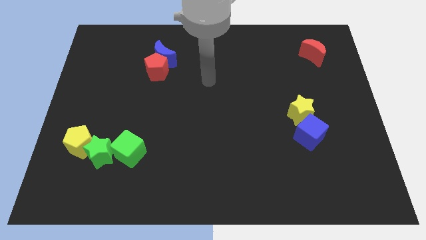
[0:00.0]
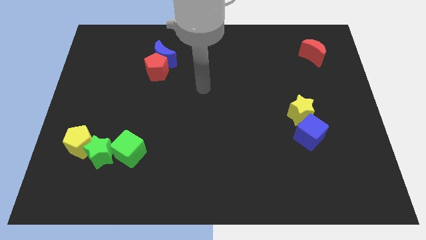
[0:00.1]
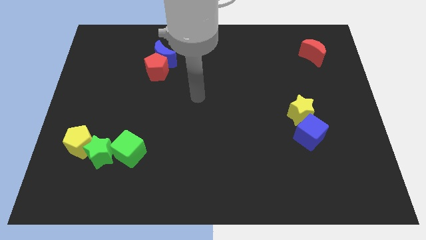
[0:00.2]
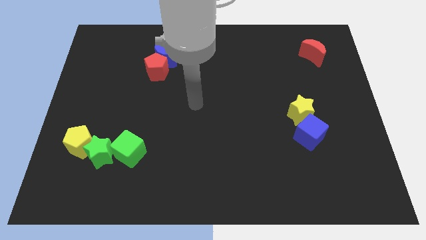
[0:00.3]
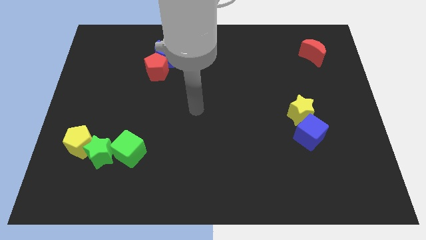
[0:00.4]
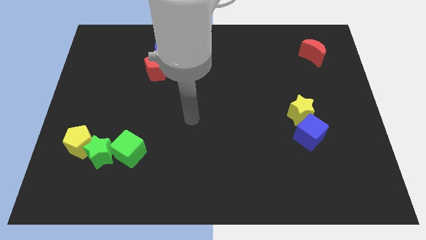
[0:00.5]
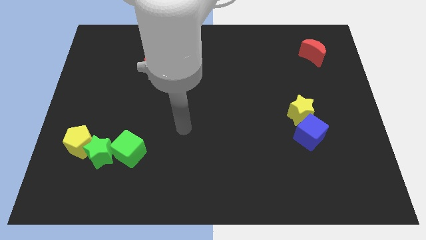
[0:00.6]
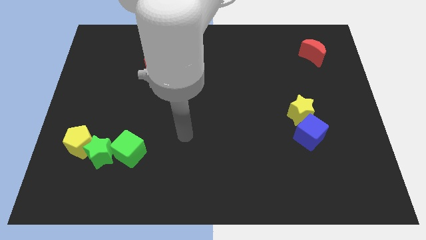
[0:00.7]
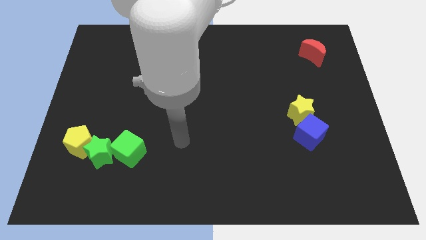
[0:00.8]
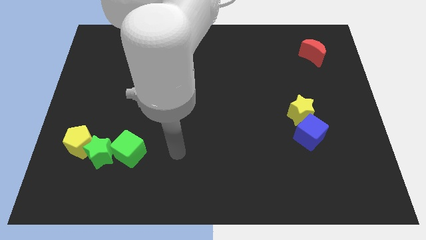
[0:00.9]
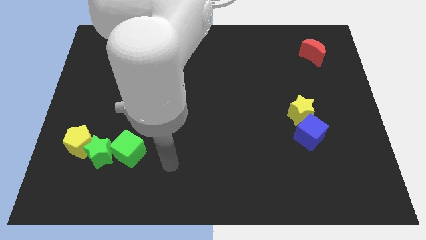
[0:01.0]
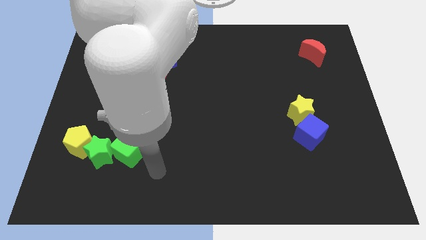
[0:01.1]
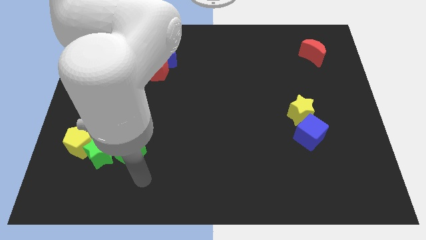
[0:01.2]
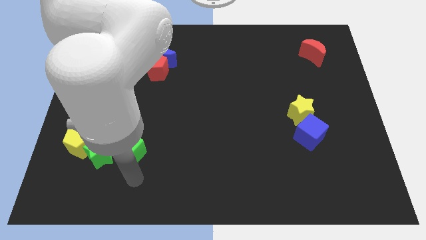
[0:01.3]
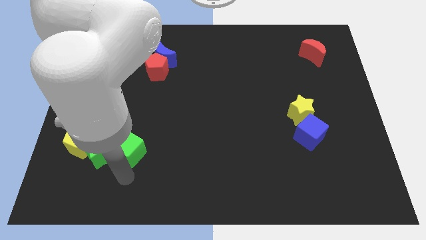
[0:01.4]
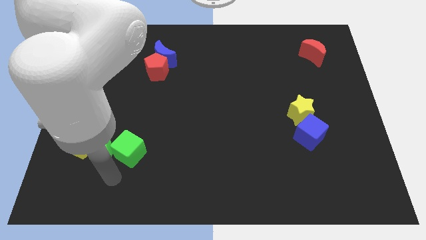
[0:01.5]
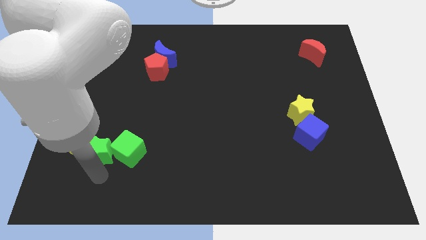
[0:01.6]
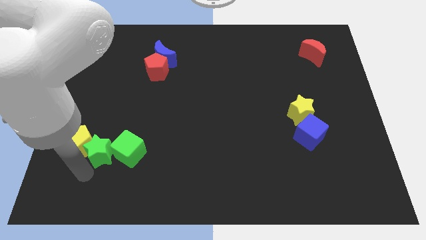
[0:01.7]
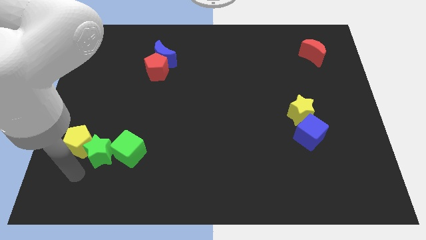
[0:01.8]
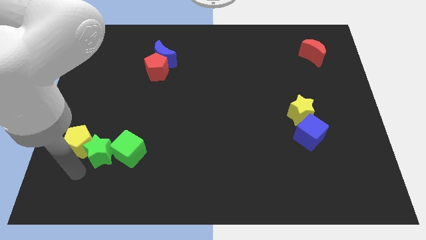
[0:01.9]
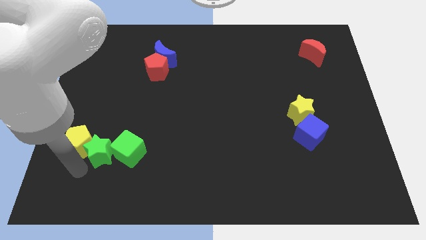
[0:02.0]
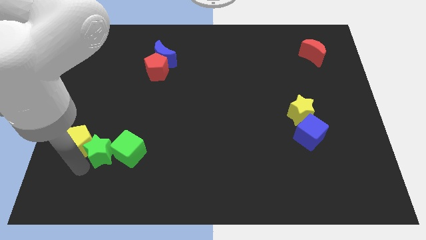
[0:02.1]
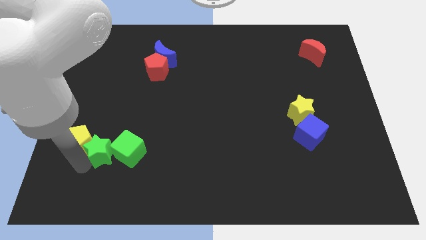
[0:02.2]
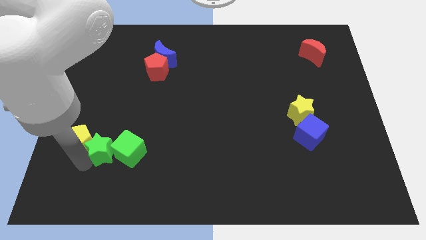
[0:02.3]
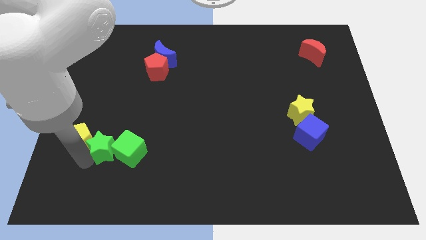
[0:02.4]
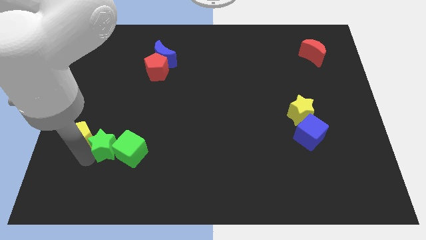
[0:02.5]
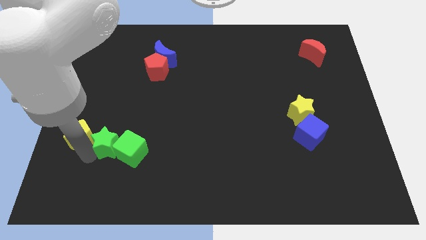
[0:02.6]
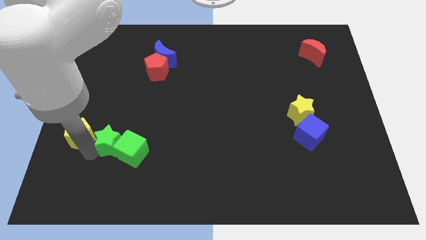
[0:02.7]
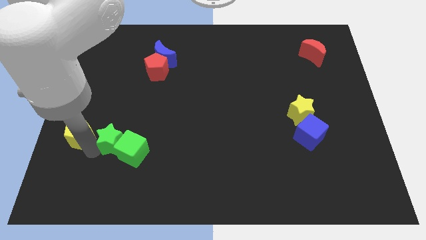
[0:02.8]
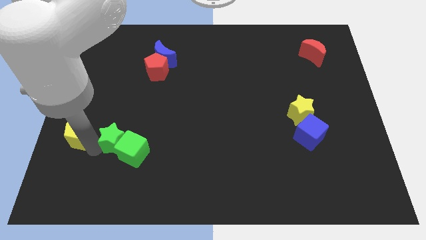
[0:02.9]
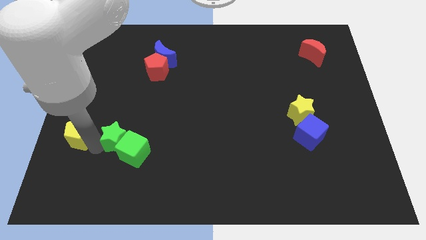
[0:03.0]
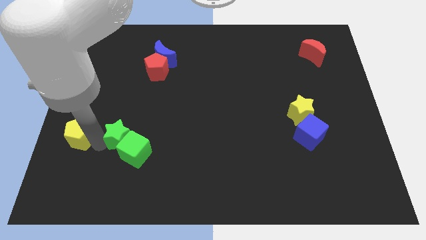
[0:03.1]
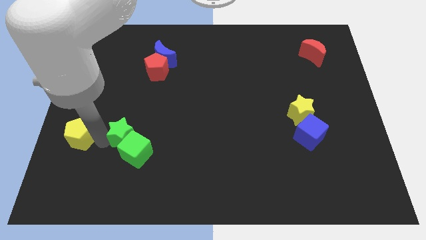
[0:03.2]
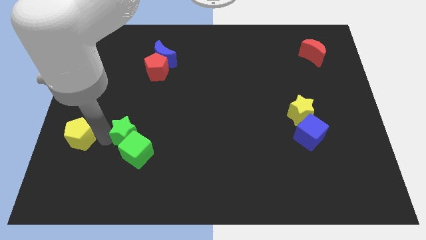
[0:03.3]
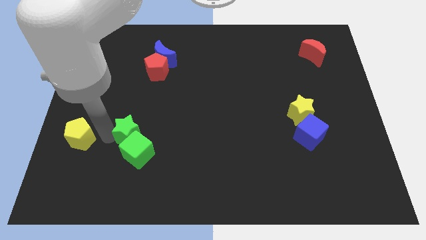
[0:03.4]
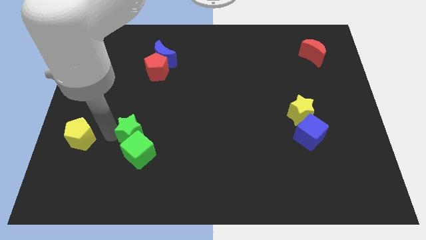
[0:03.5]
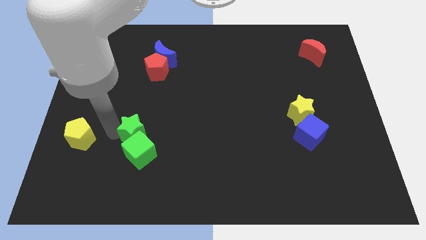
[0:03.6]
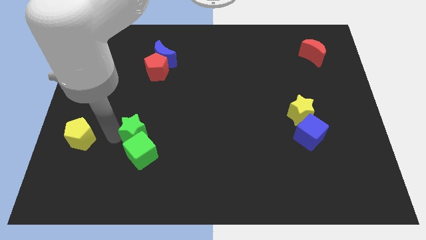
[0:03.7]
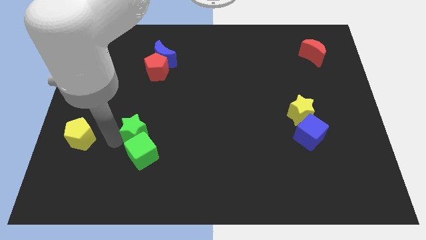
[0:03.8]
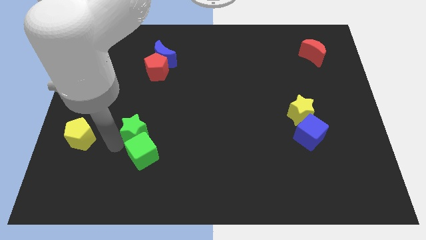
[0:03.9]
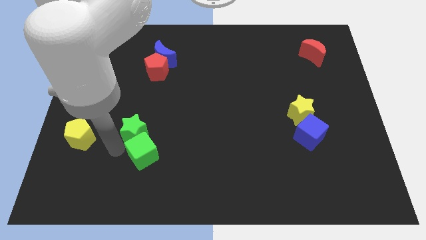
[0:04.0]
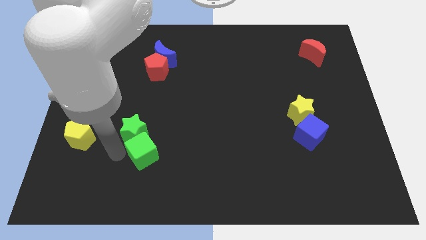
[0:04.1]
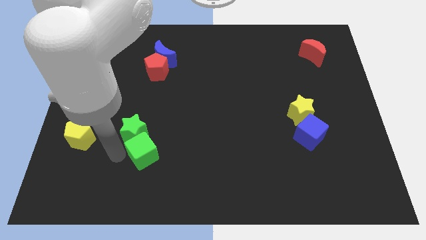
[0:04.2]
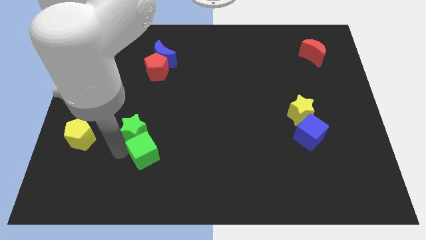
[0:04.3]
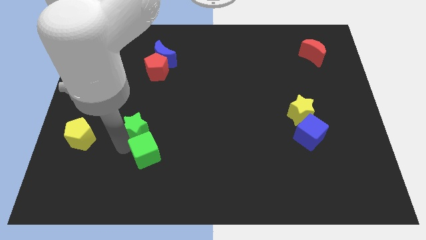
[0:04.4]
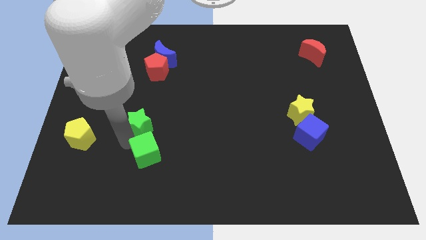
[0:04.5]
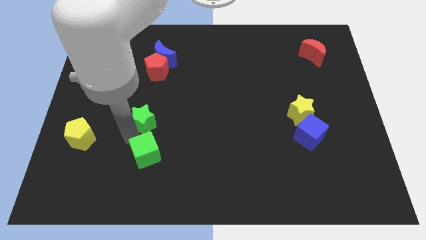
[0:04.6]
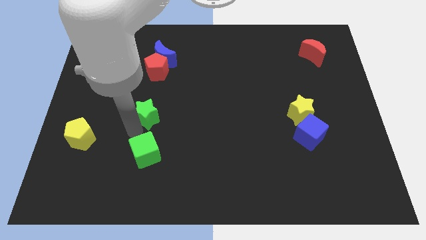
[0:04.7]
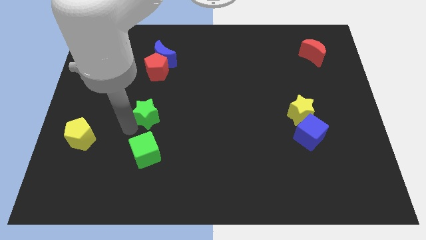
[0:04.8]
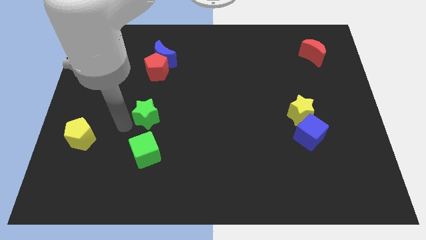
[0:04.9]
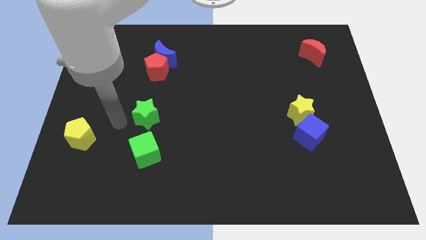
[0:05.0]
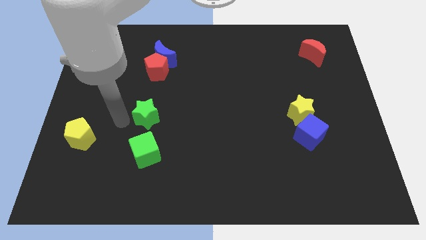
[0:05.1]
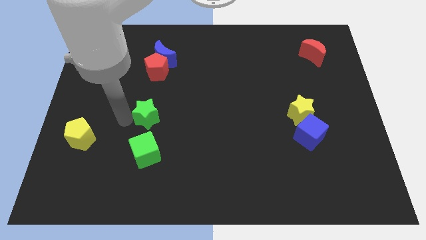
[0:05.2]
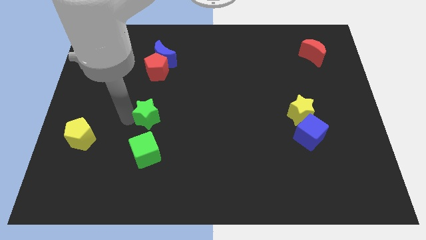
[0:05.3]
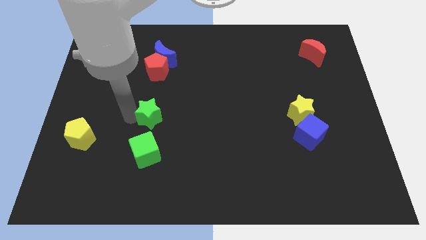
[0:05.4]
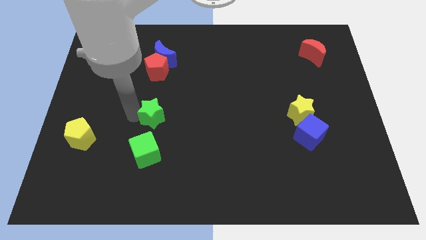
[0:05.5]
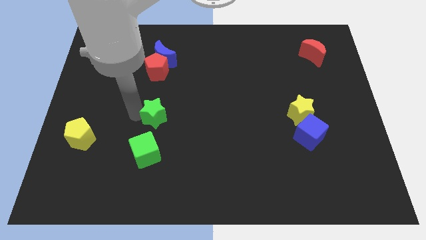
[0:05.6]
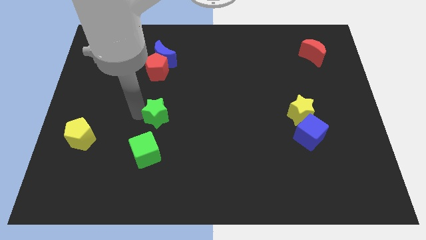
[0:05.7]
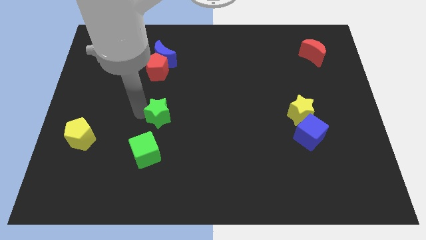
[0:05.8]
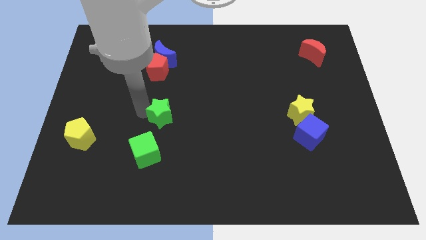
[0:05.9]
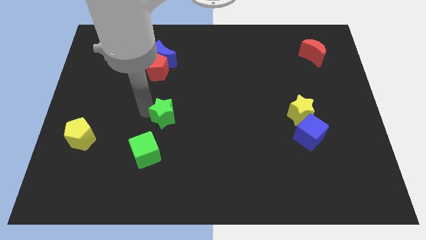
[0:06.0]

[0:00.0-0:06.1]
put the green star to the center

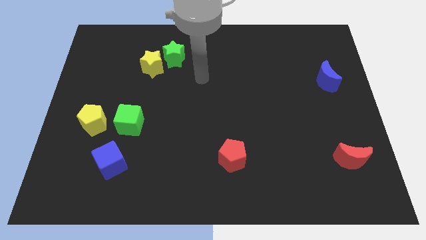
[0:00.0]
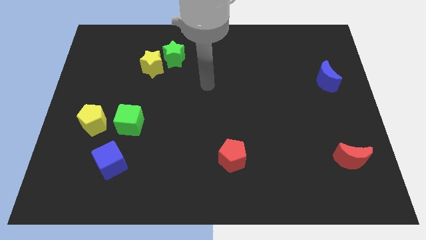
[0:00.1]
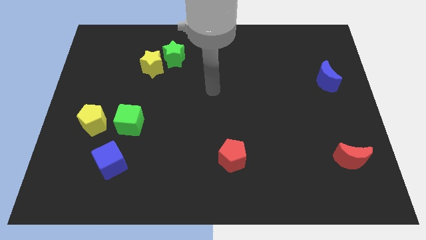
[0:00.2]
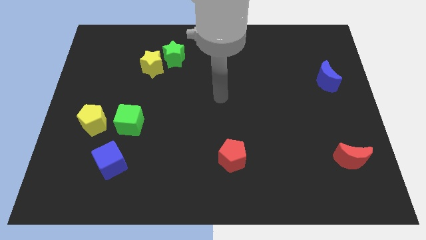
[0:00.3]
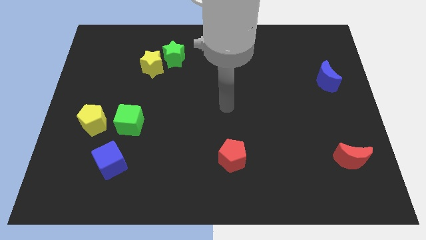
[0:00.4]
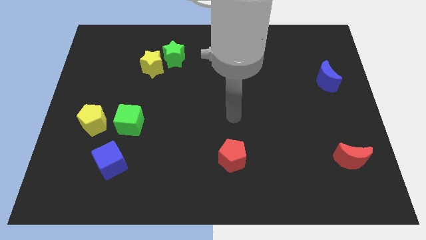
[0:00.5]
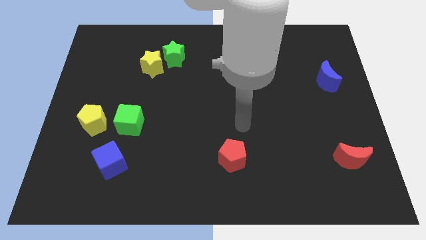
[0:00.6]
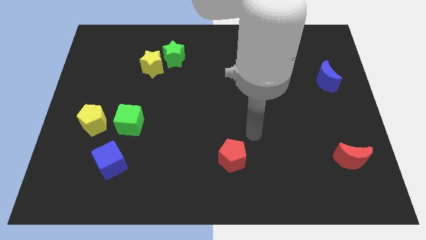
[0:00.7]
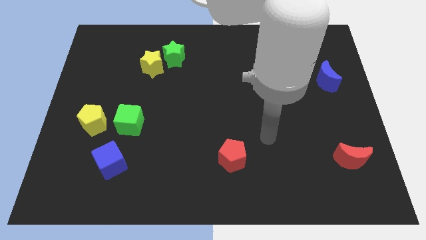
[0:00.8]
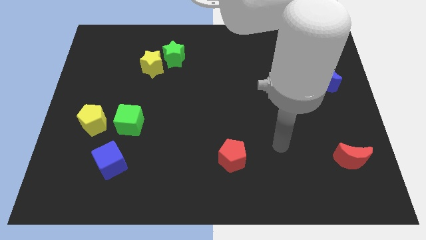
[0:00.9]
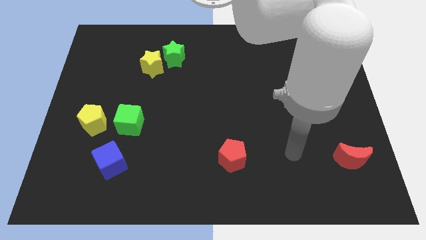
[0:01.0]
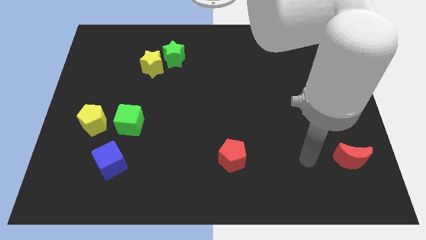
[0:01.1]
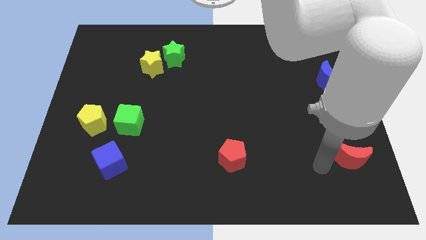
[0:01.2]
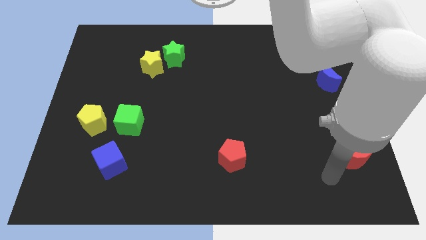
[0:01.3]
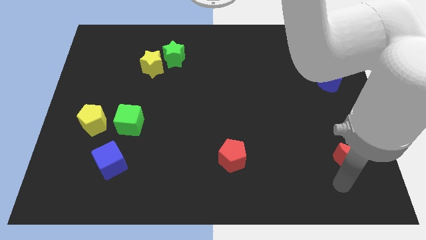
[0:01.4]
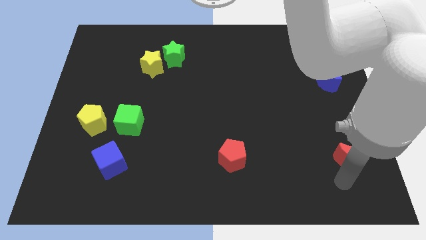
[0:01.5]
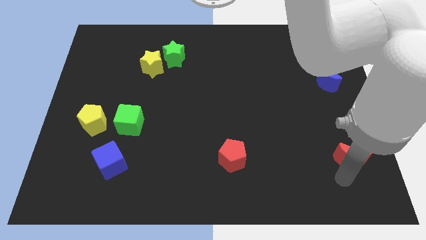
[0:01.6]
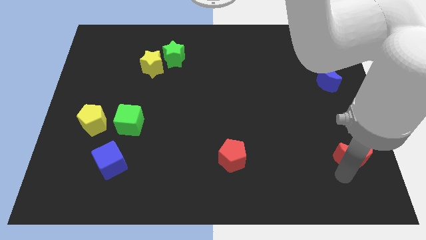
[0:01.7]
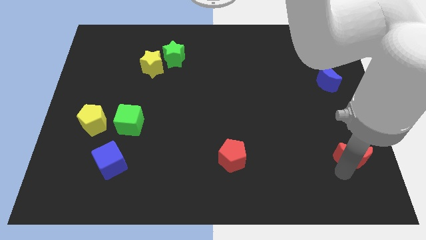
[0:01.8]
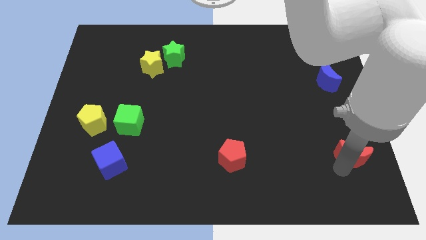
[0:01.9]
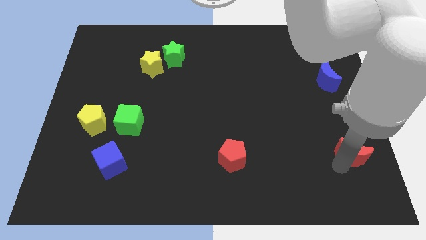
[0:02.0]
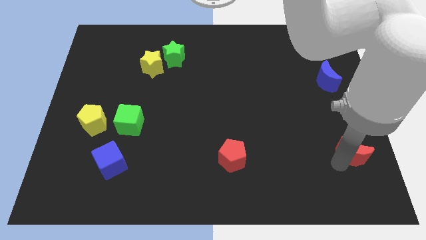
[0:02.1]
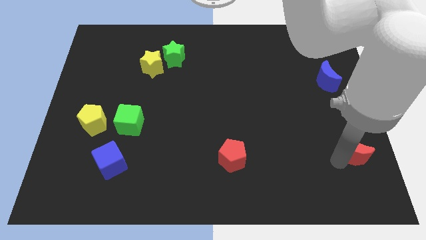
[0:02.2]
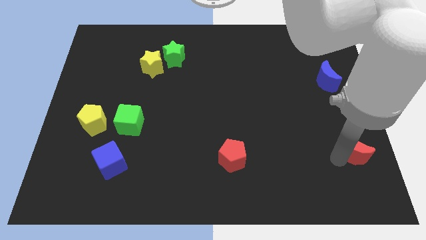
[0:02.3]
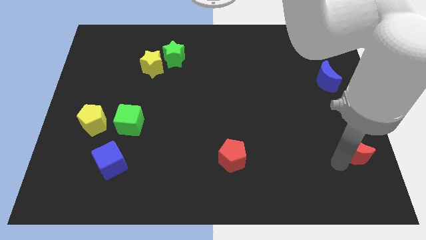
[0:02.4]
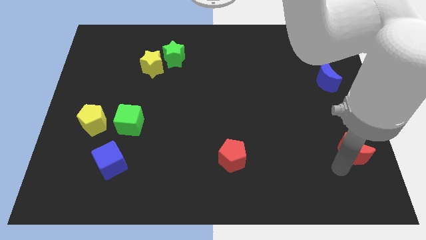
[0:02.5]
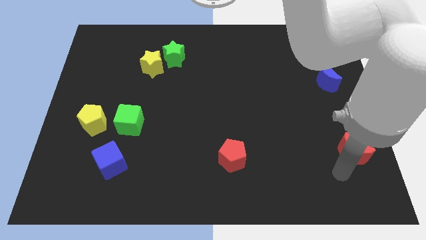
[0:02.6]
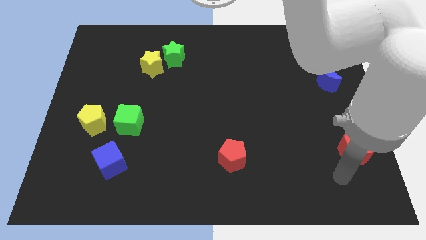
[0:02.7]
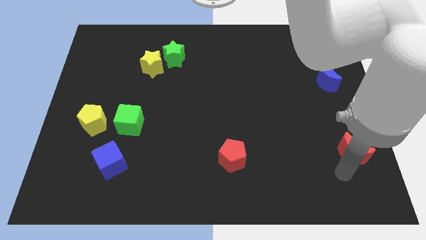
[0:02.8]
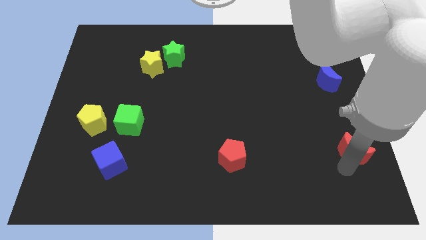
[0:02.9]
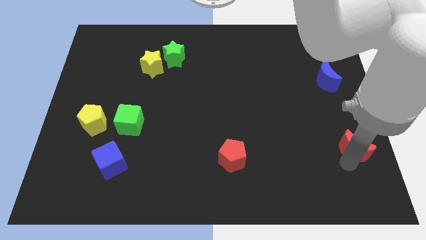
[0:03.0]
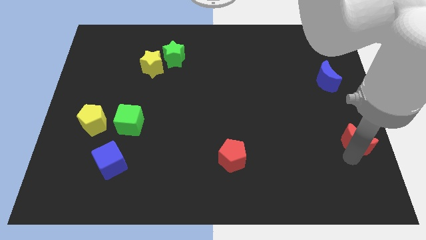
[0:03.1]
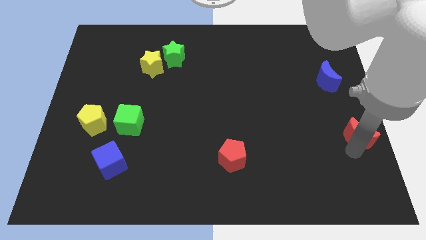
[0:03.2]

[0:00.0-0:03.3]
push the red moon to the center right
